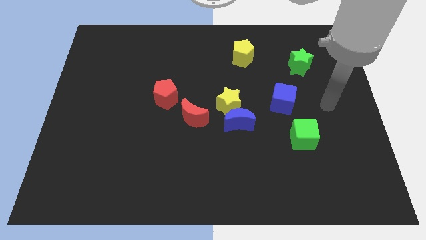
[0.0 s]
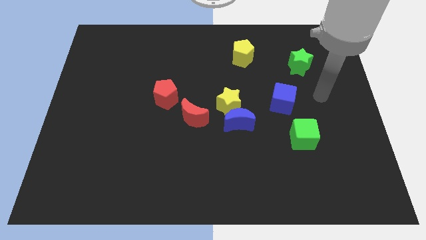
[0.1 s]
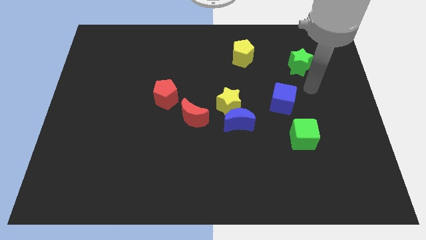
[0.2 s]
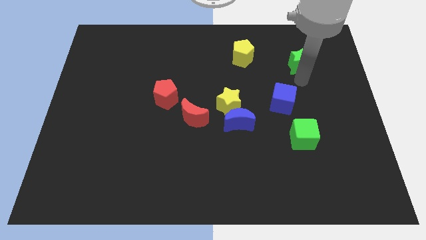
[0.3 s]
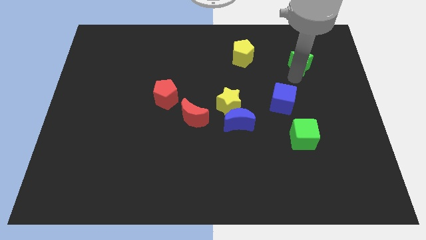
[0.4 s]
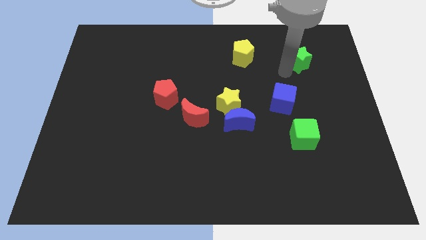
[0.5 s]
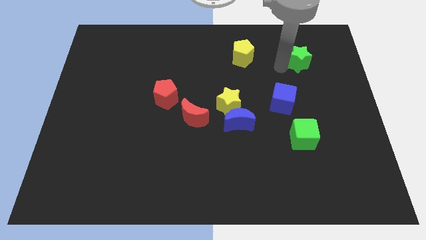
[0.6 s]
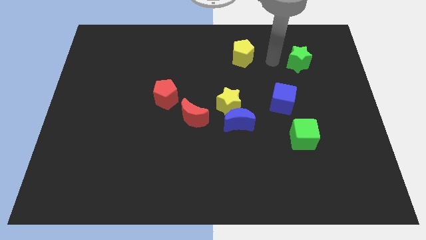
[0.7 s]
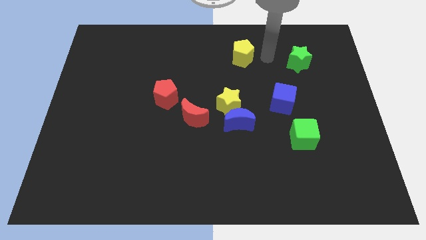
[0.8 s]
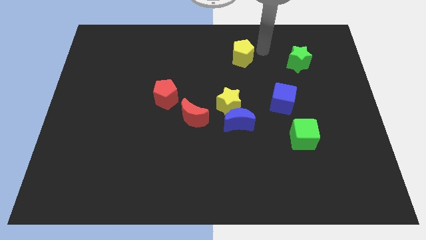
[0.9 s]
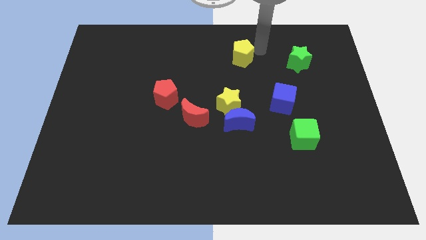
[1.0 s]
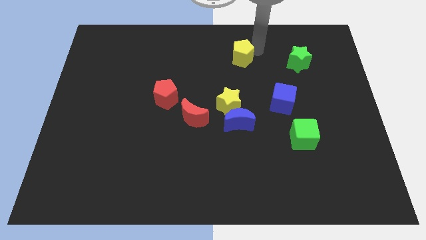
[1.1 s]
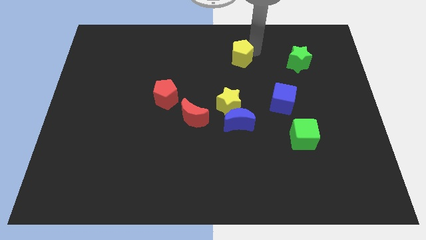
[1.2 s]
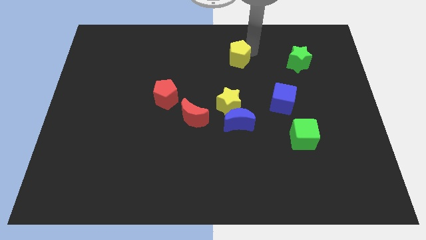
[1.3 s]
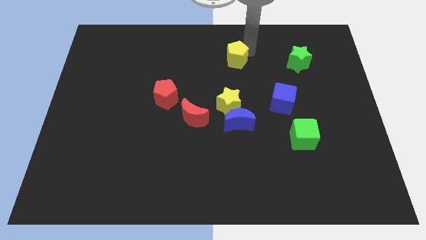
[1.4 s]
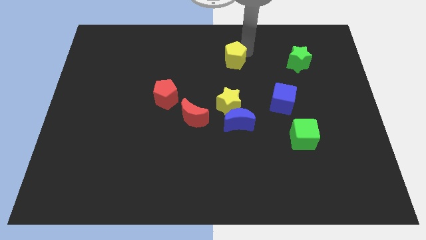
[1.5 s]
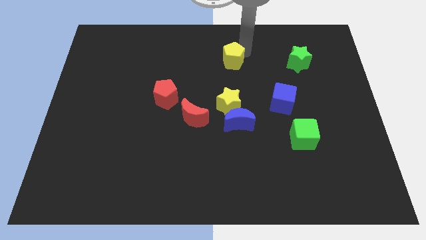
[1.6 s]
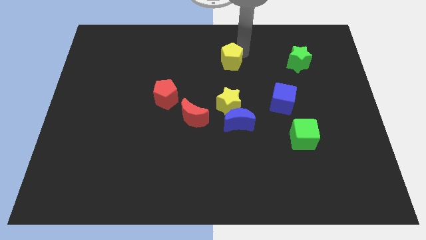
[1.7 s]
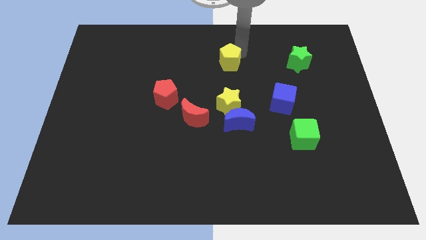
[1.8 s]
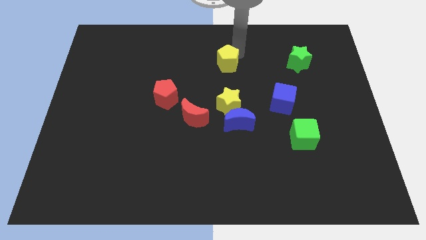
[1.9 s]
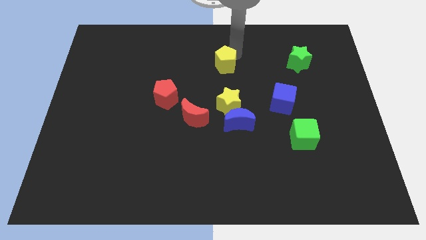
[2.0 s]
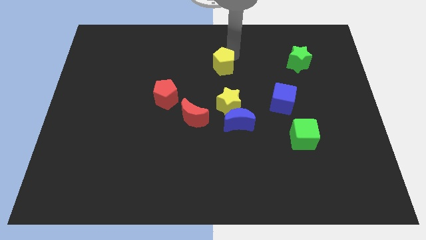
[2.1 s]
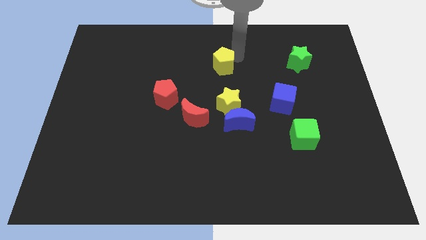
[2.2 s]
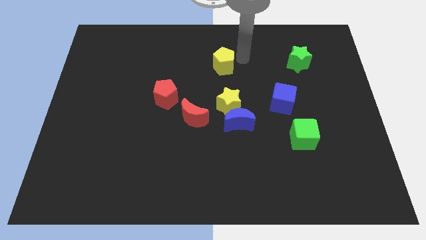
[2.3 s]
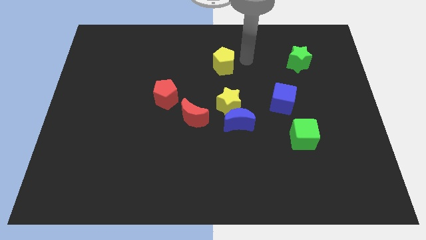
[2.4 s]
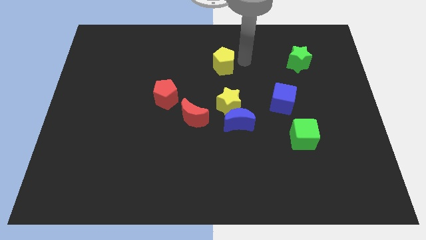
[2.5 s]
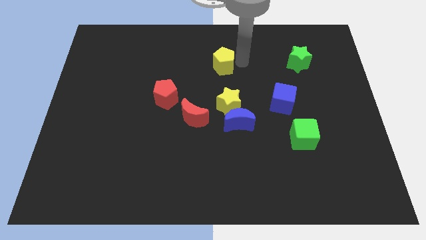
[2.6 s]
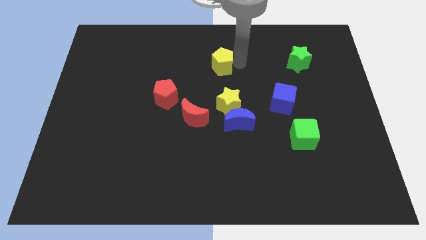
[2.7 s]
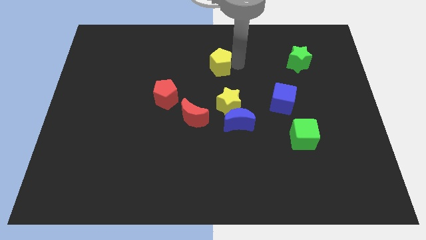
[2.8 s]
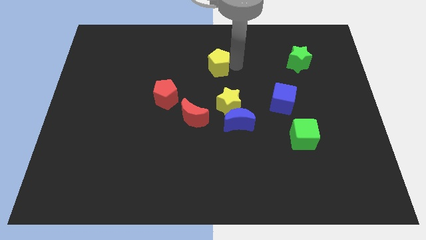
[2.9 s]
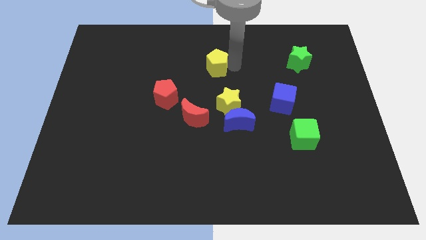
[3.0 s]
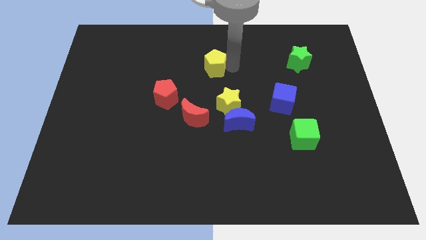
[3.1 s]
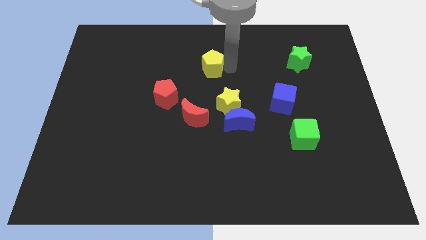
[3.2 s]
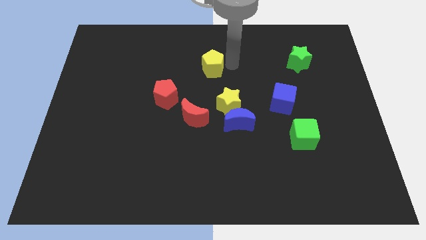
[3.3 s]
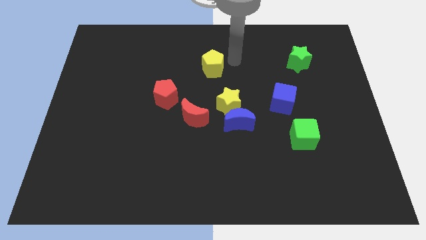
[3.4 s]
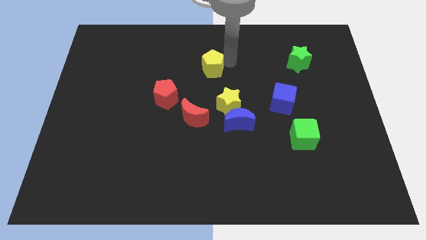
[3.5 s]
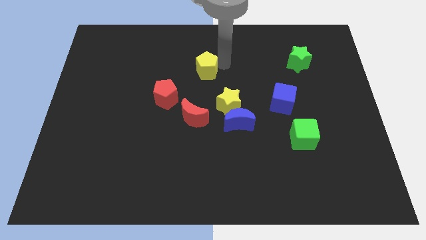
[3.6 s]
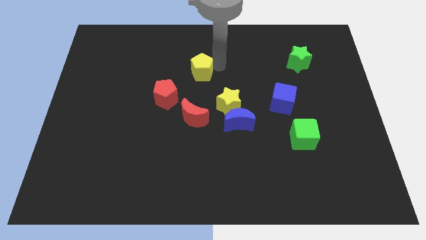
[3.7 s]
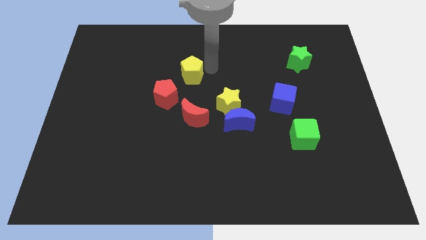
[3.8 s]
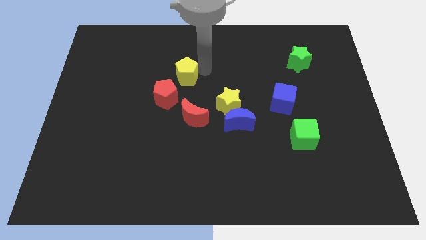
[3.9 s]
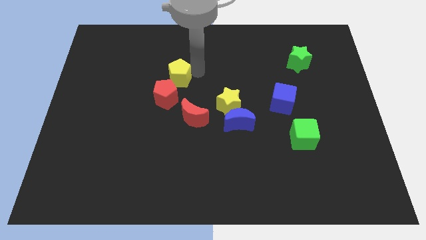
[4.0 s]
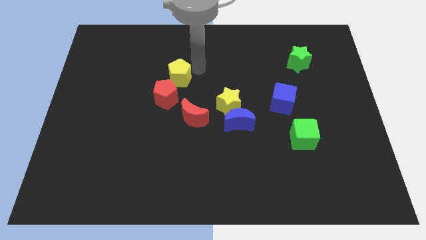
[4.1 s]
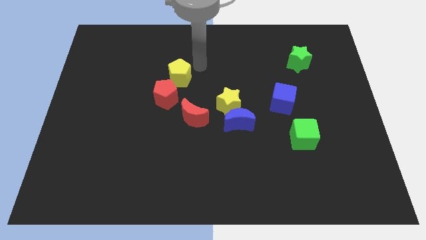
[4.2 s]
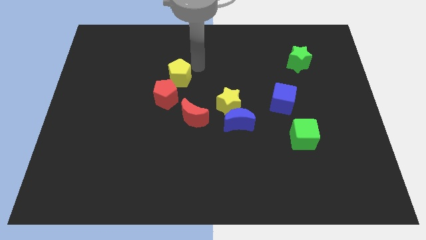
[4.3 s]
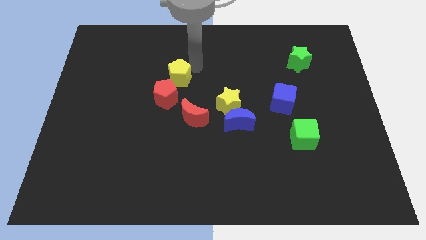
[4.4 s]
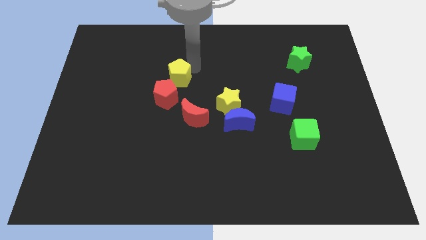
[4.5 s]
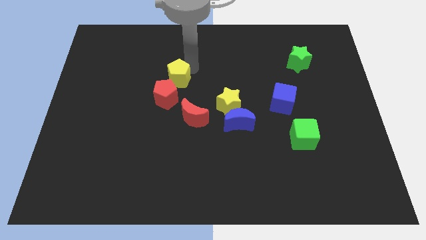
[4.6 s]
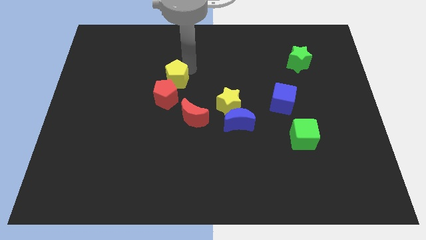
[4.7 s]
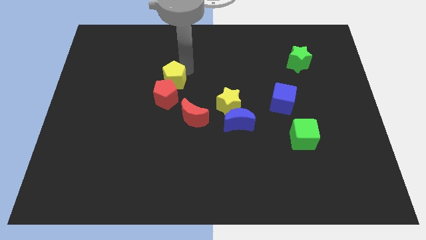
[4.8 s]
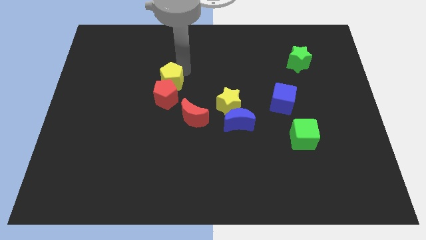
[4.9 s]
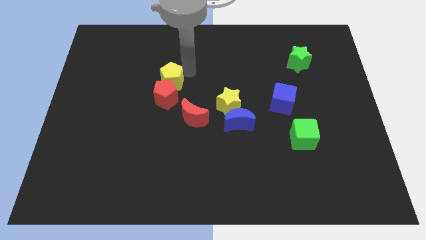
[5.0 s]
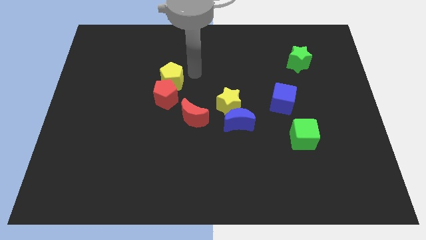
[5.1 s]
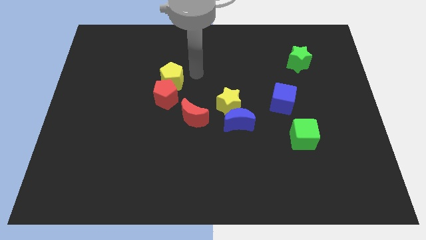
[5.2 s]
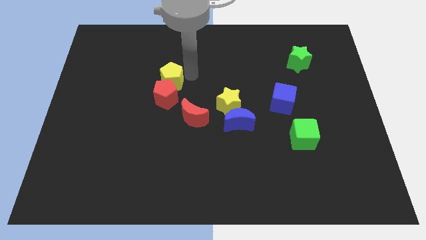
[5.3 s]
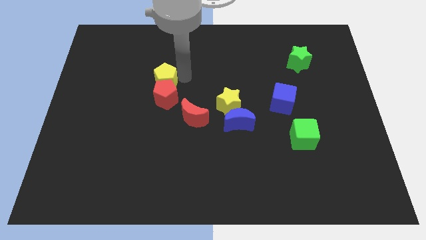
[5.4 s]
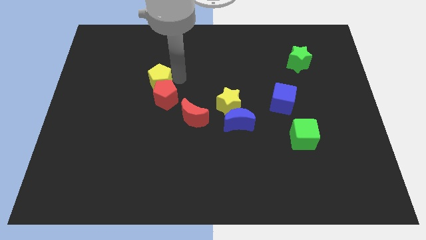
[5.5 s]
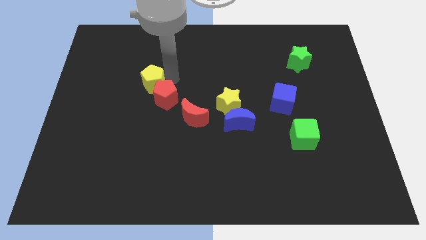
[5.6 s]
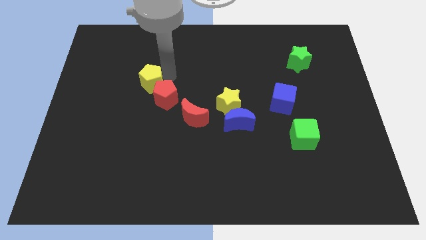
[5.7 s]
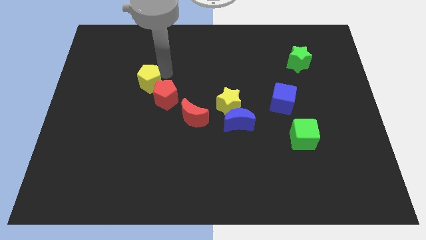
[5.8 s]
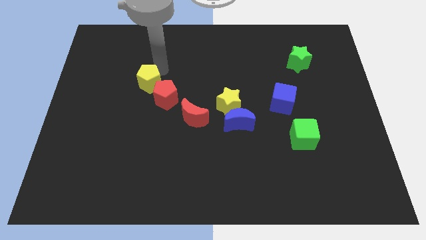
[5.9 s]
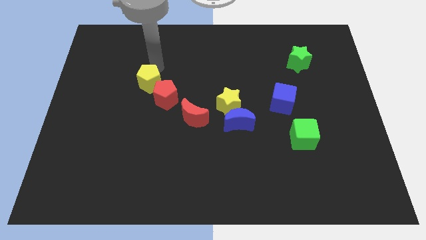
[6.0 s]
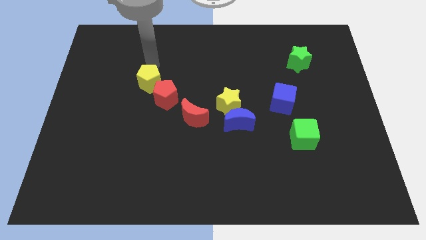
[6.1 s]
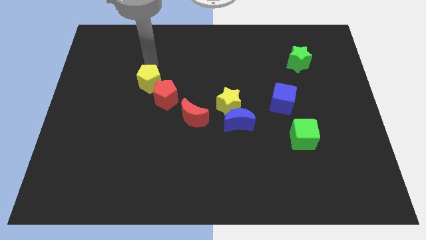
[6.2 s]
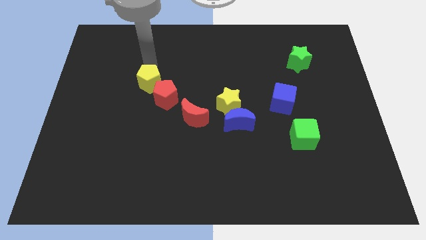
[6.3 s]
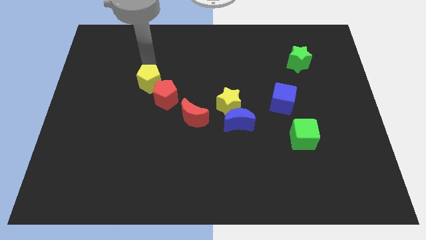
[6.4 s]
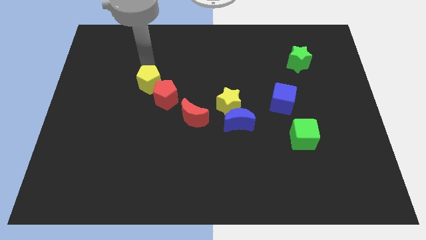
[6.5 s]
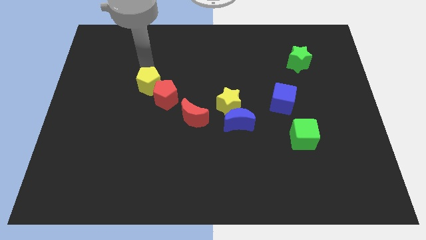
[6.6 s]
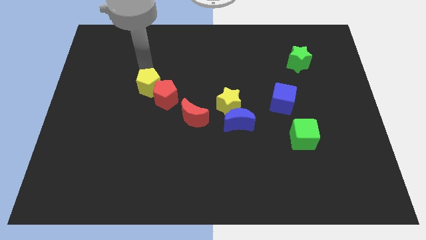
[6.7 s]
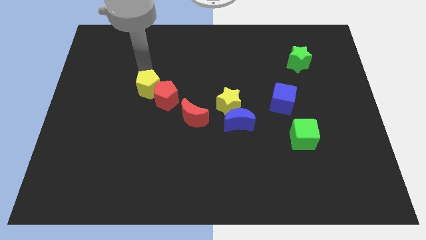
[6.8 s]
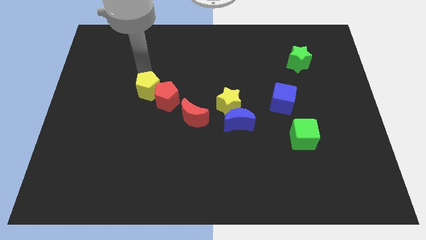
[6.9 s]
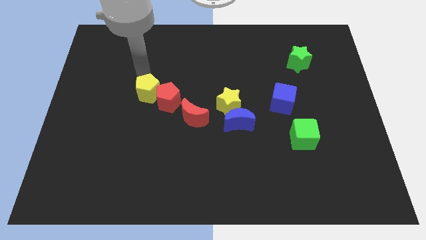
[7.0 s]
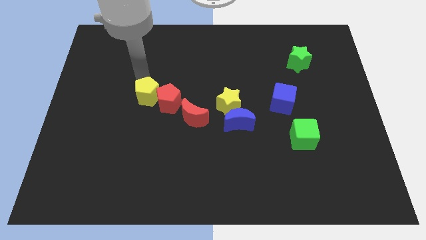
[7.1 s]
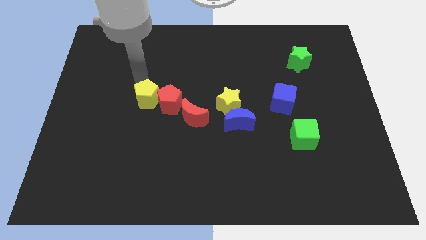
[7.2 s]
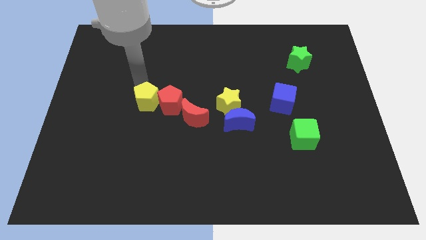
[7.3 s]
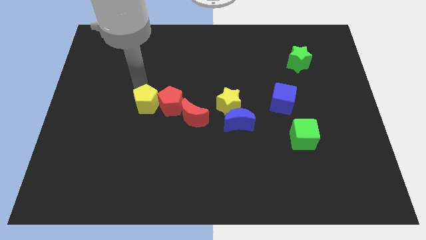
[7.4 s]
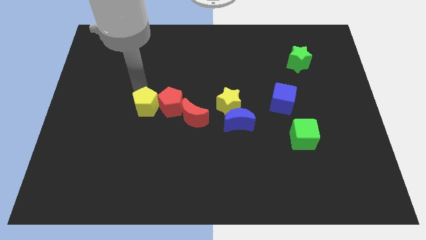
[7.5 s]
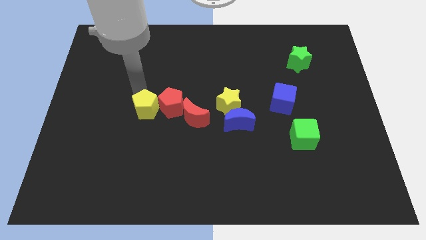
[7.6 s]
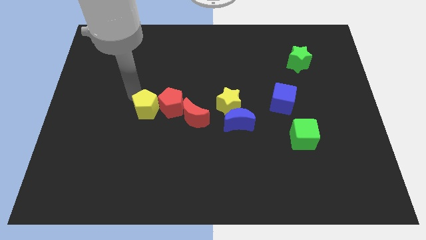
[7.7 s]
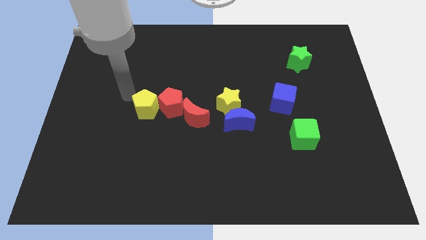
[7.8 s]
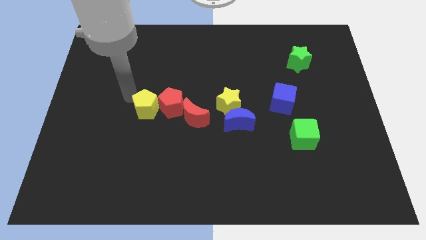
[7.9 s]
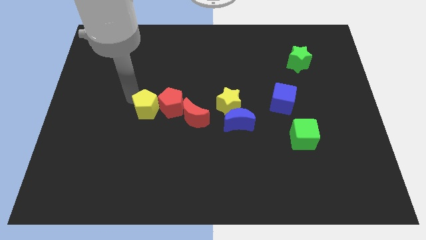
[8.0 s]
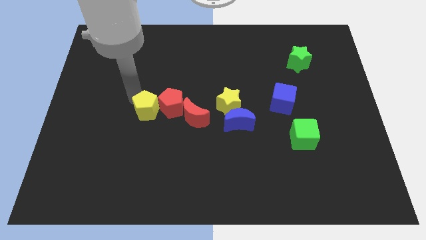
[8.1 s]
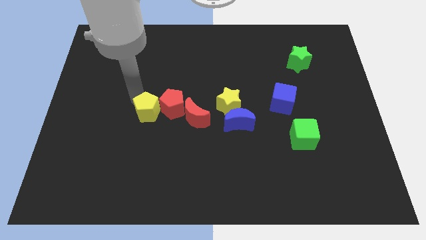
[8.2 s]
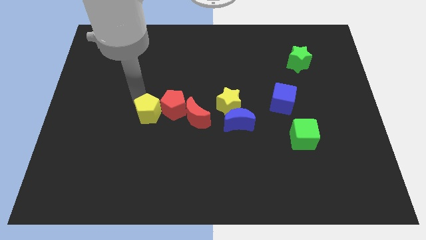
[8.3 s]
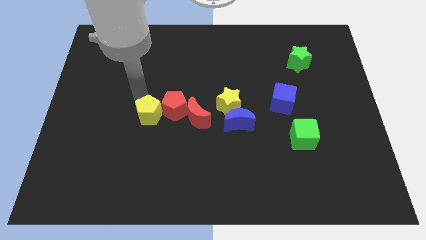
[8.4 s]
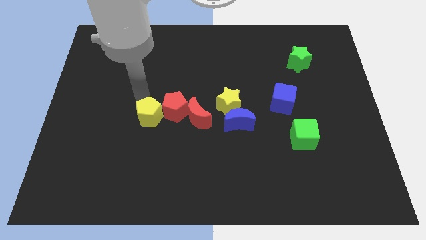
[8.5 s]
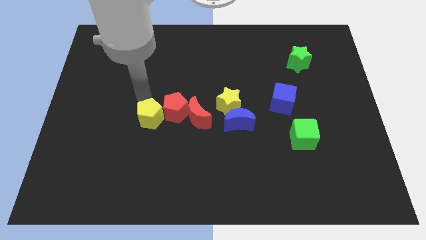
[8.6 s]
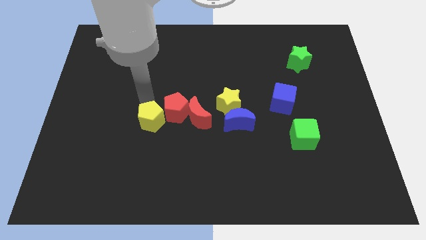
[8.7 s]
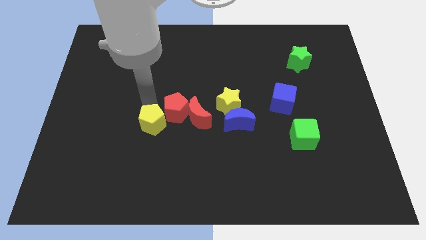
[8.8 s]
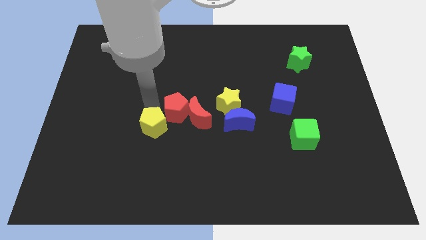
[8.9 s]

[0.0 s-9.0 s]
push the yellow pentagon to the bottom side of the red pentagon
